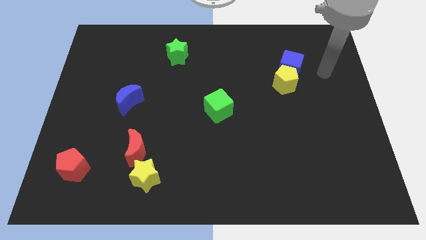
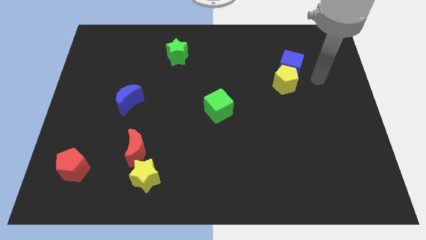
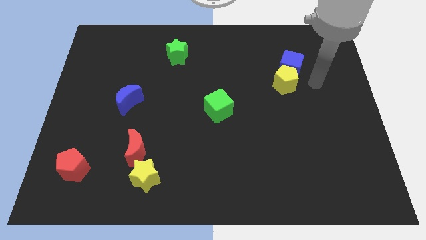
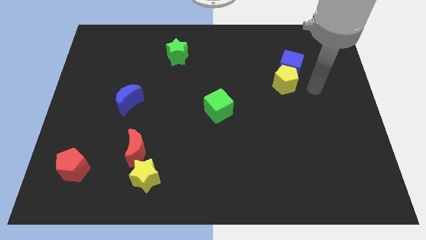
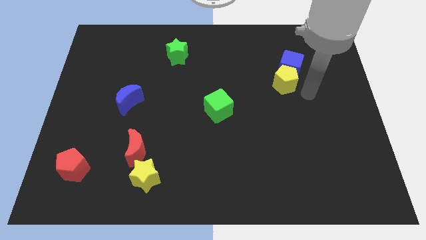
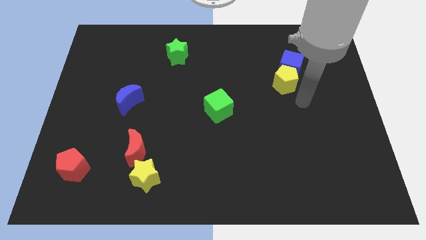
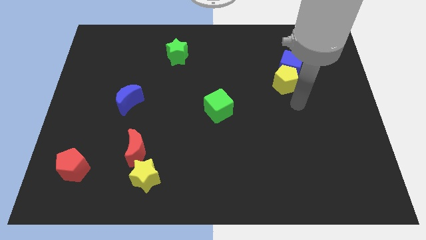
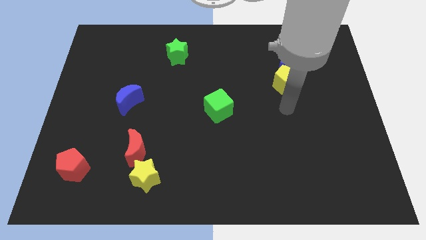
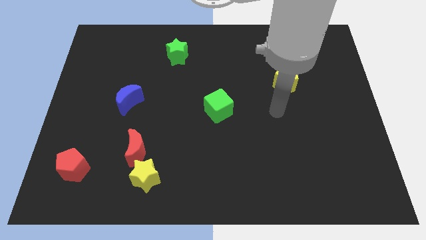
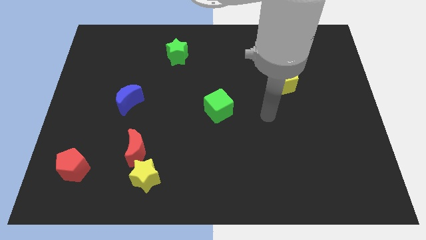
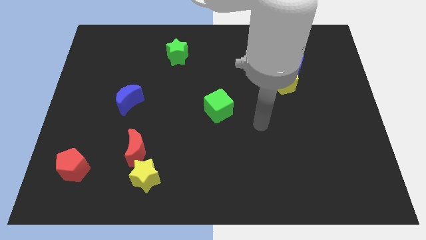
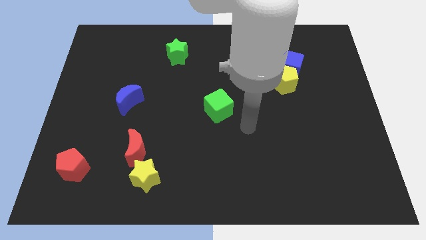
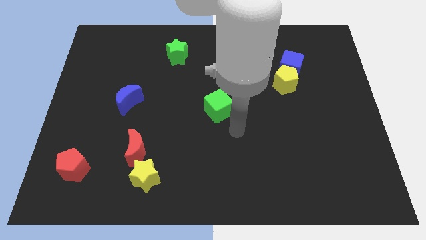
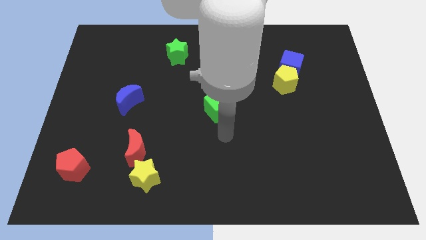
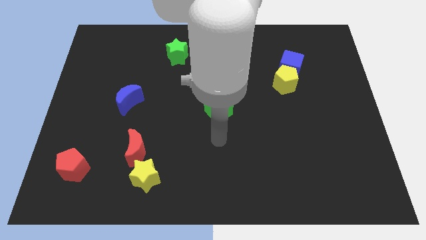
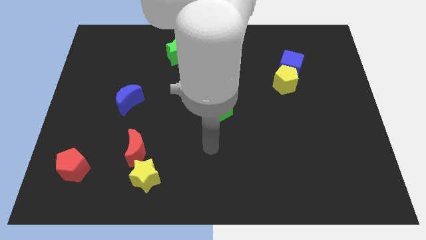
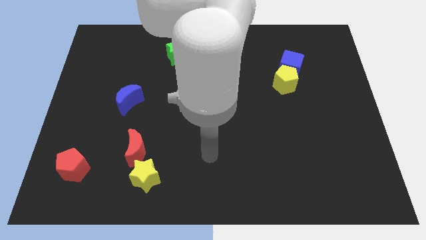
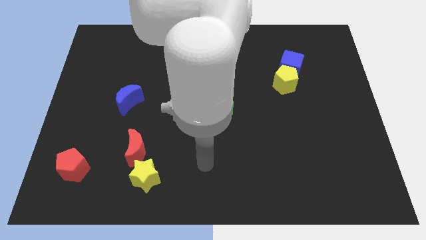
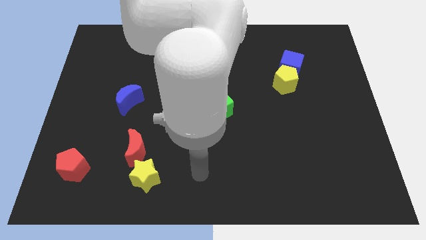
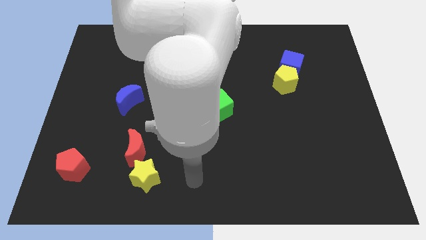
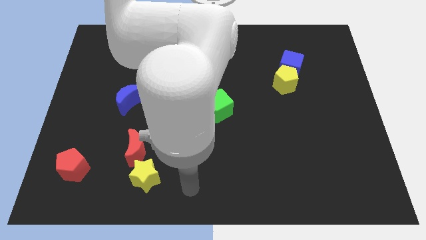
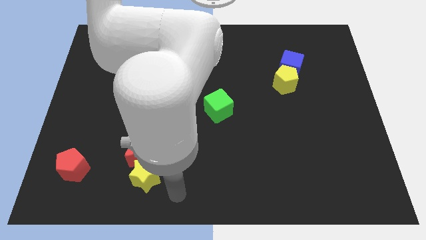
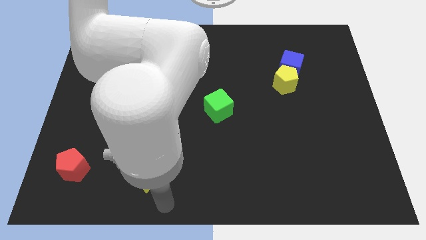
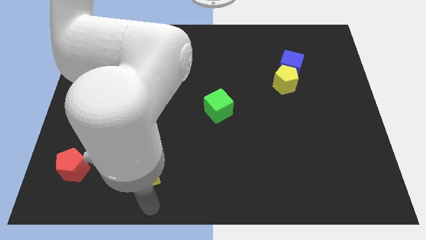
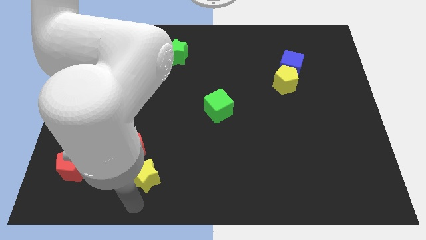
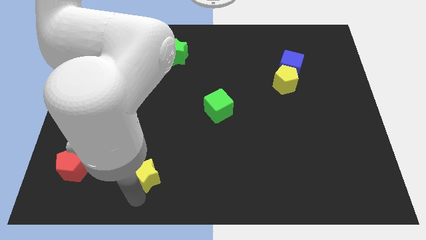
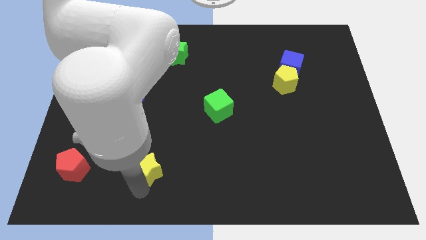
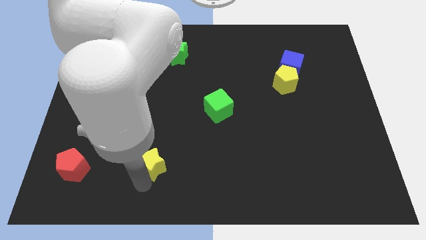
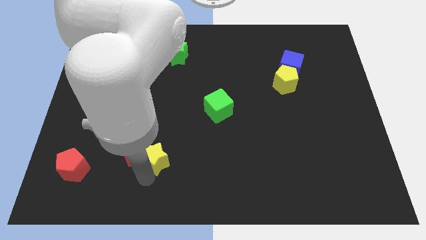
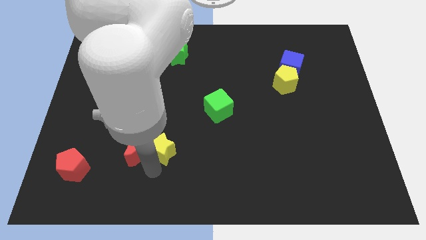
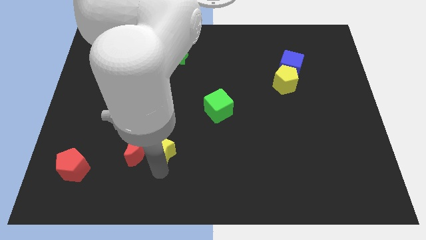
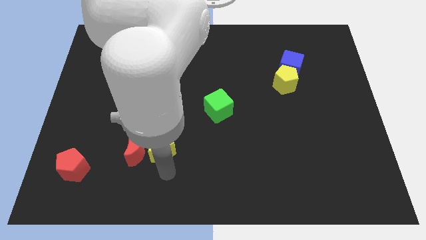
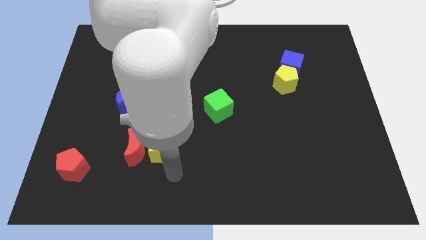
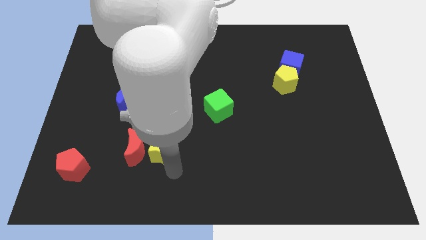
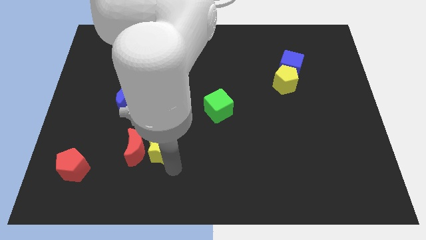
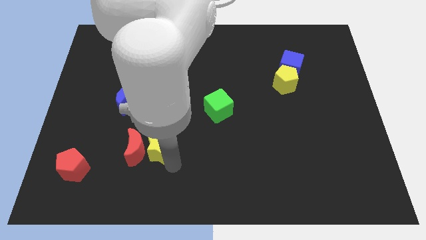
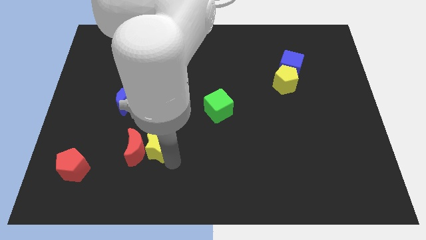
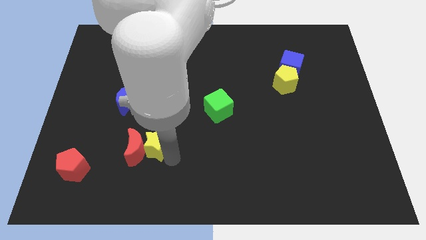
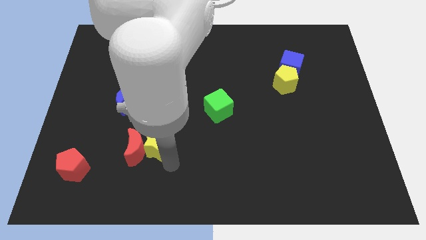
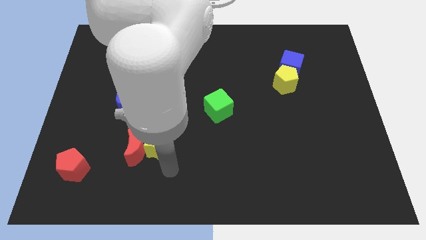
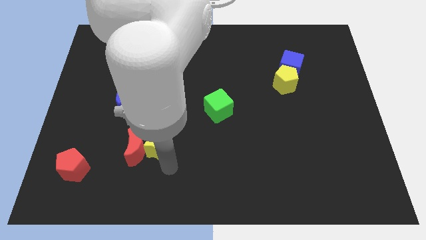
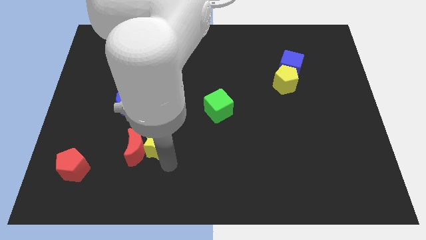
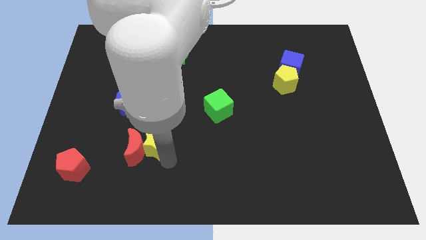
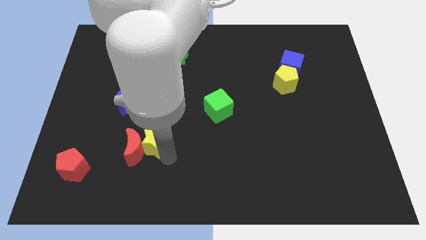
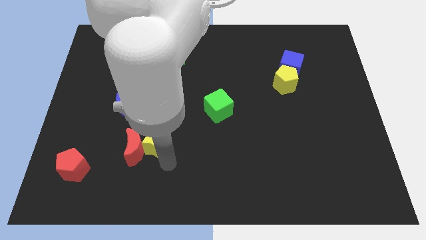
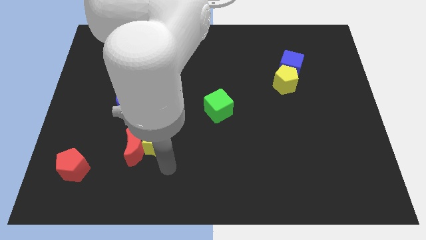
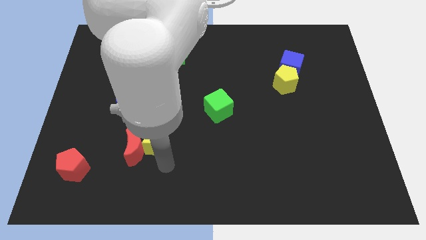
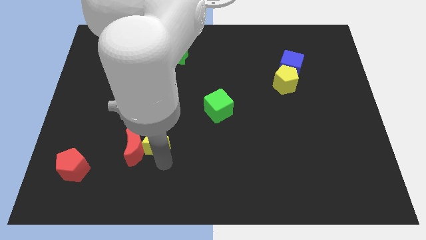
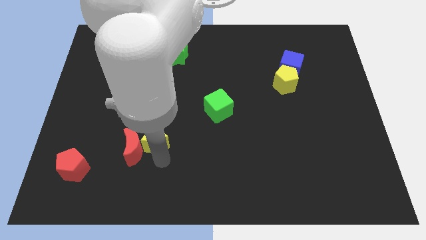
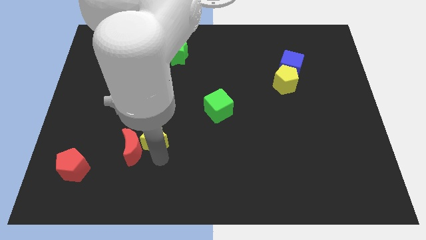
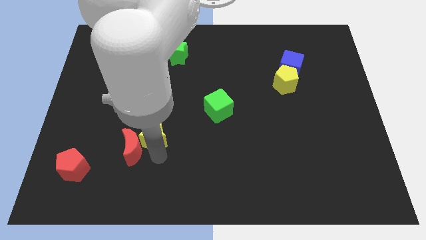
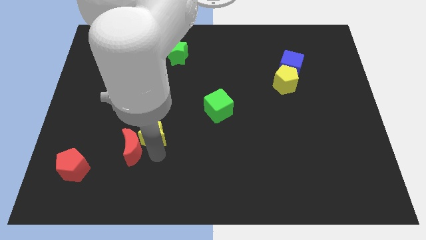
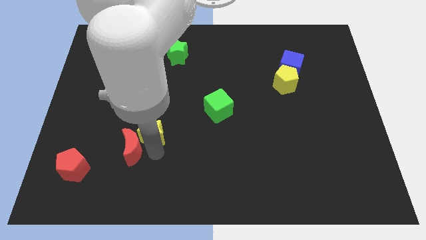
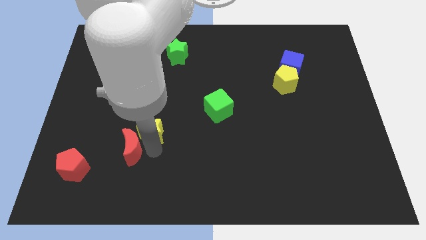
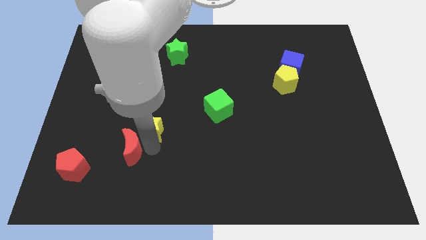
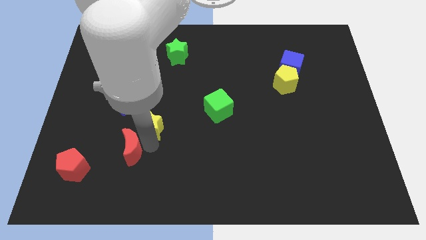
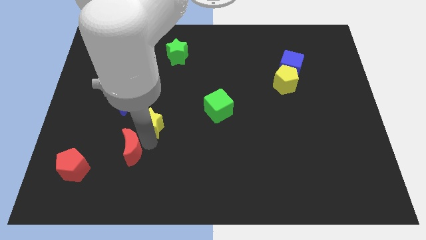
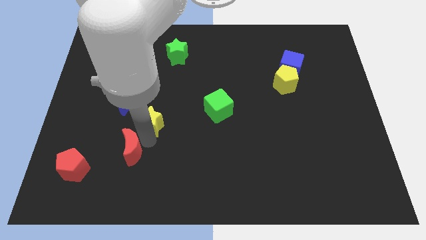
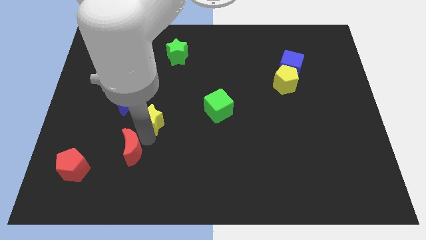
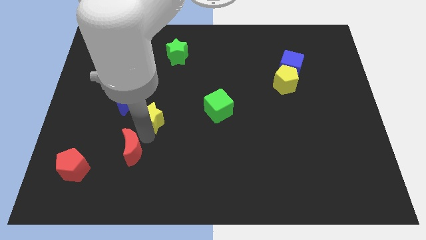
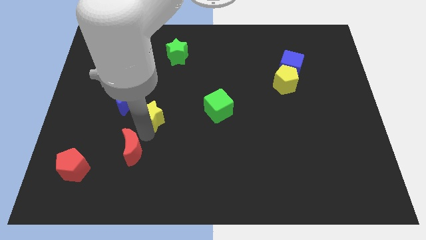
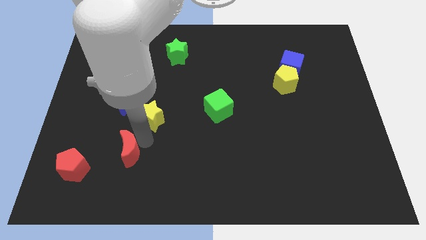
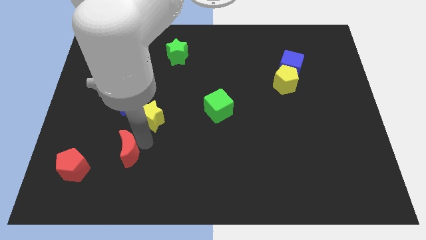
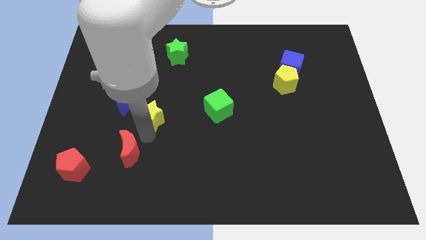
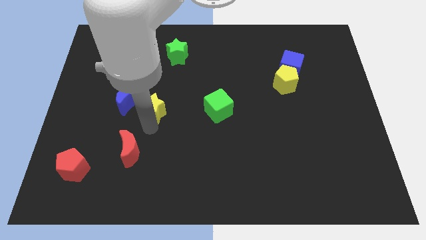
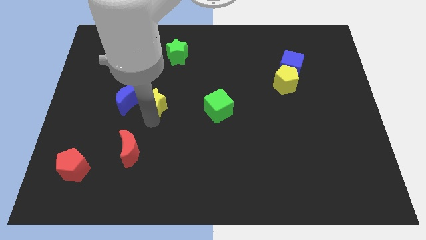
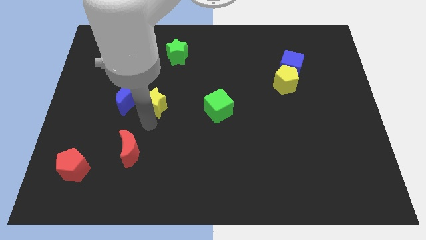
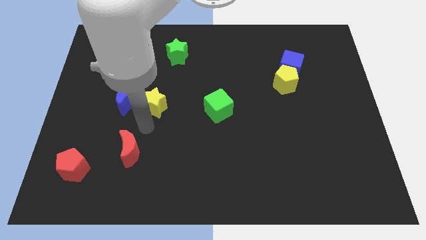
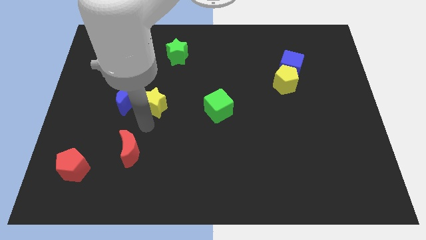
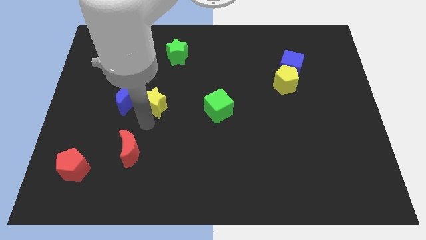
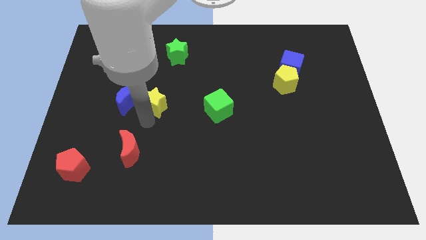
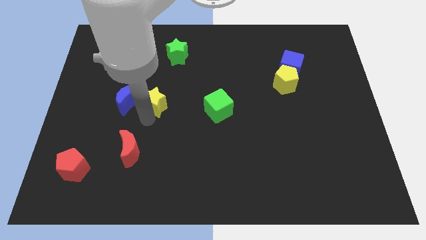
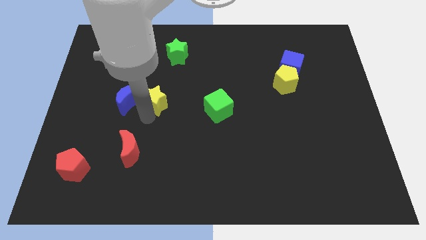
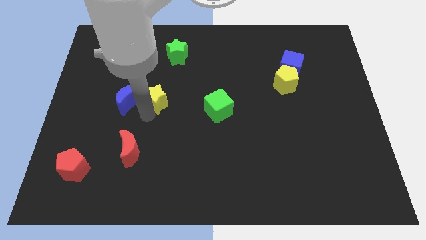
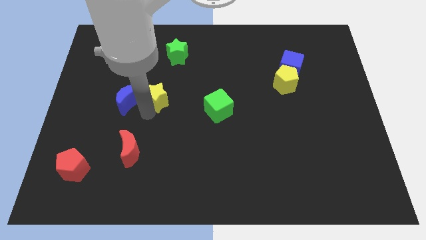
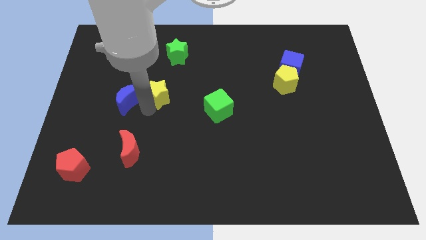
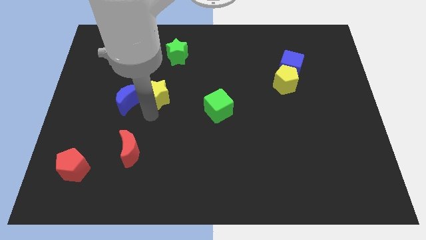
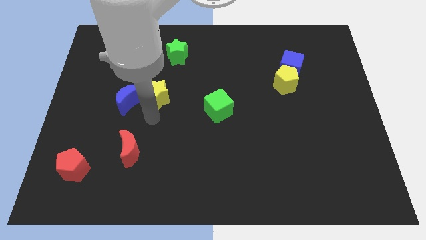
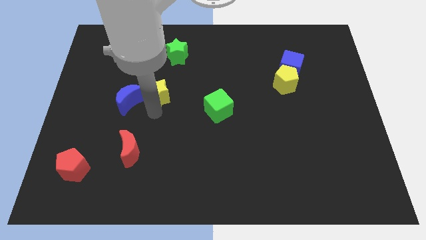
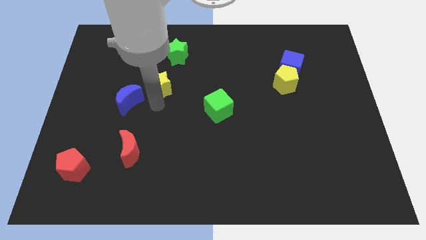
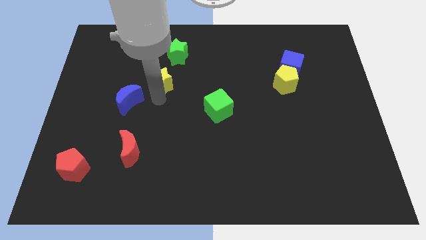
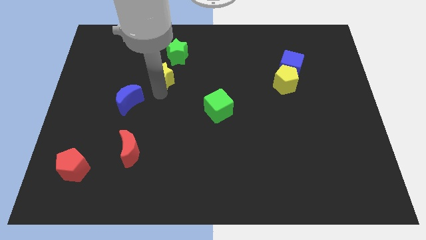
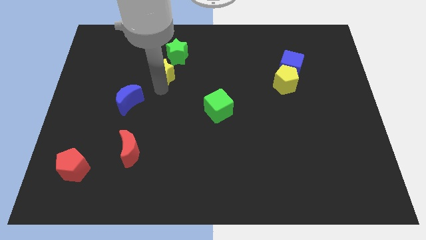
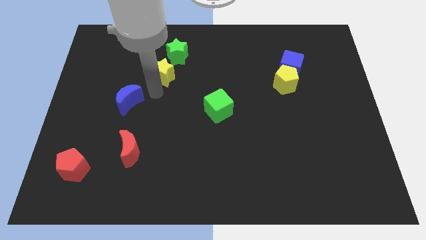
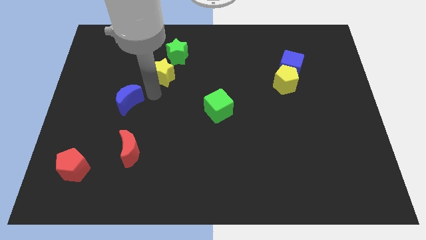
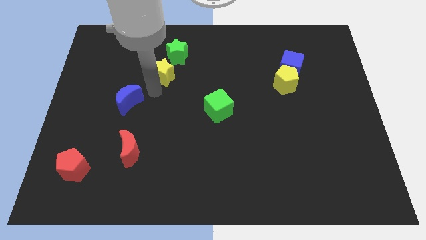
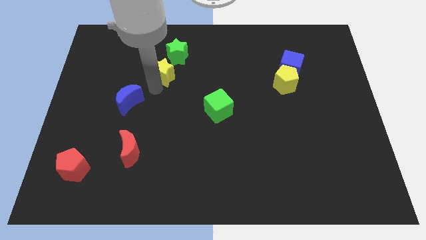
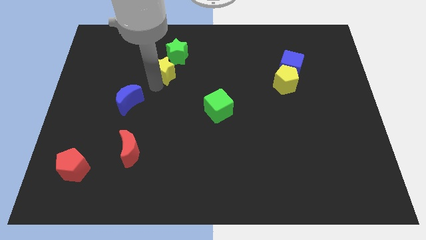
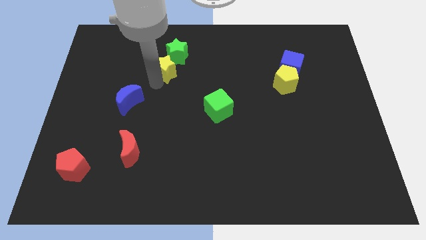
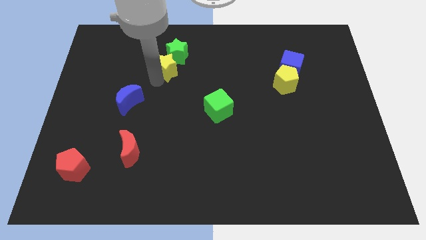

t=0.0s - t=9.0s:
slide the yellow star close to the green star
